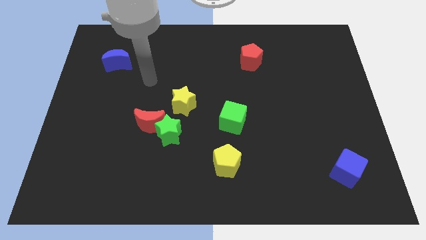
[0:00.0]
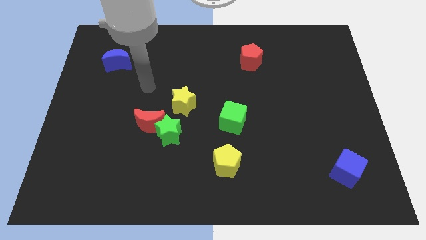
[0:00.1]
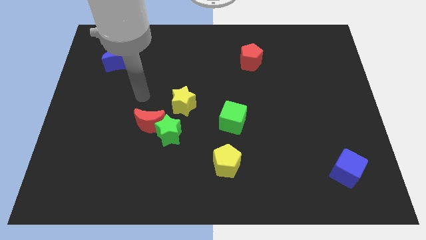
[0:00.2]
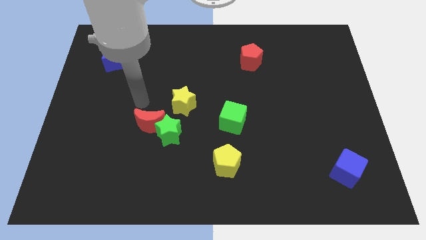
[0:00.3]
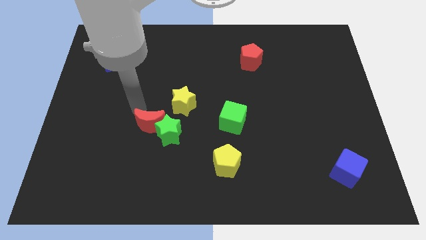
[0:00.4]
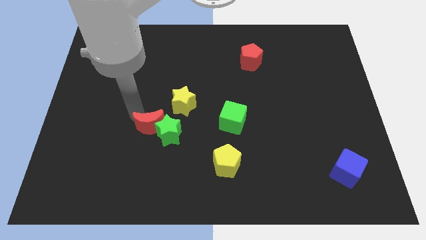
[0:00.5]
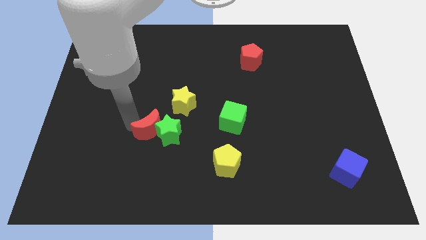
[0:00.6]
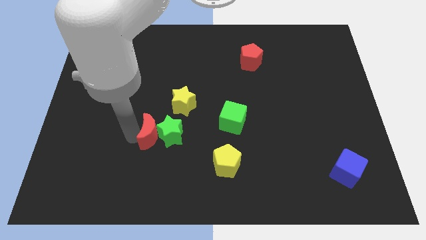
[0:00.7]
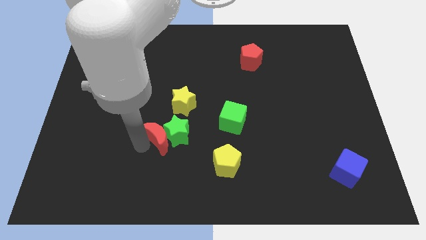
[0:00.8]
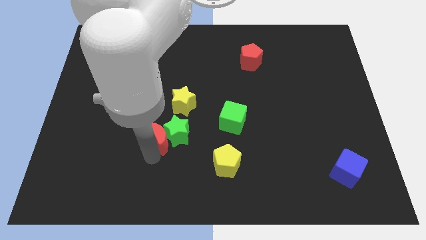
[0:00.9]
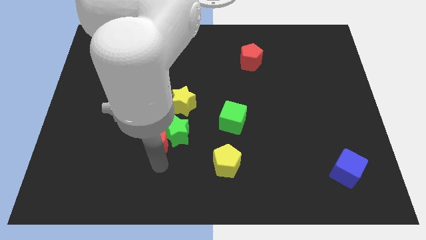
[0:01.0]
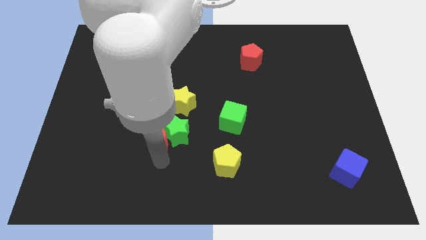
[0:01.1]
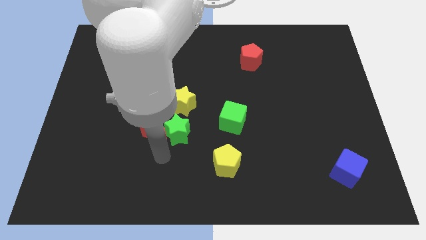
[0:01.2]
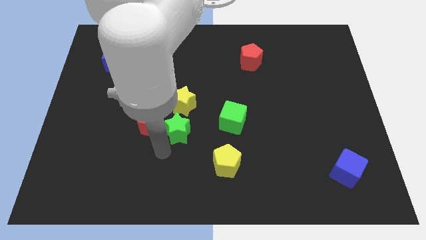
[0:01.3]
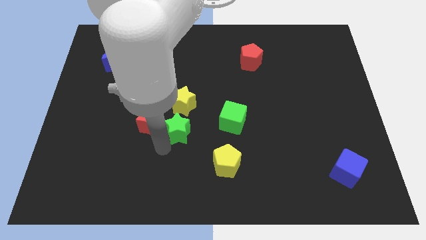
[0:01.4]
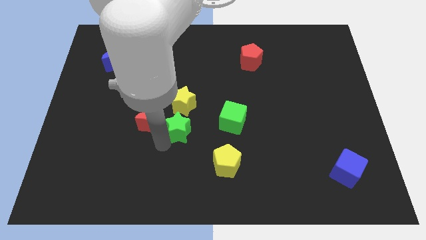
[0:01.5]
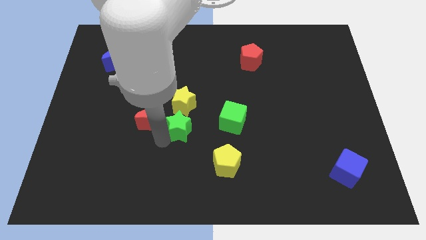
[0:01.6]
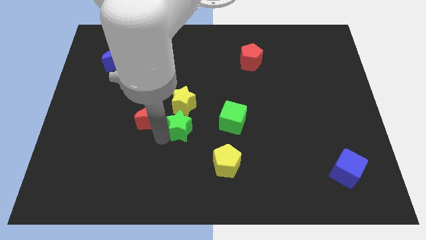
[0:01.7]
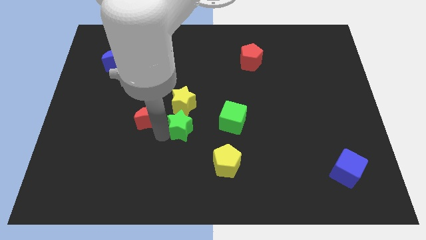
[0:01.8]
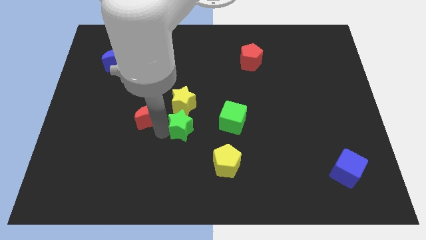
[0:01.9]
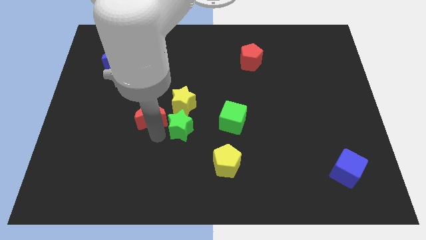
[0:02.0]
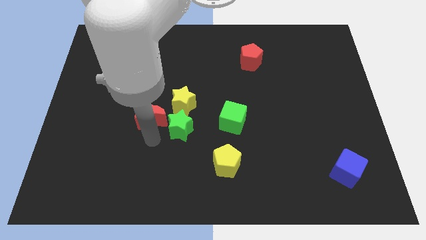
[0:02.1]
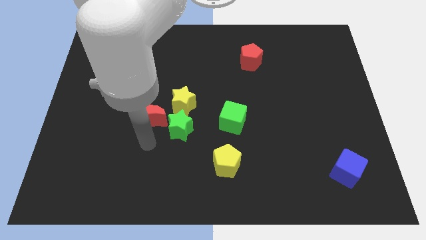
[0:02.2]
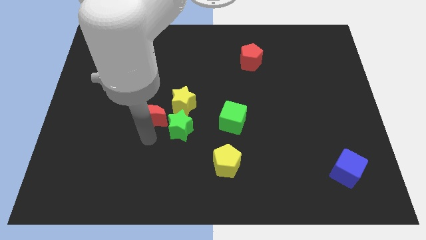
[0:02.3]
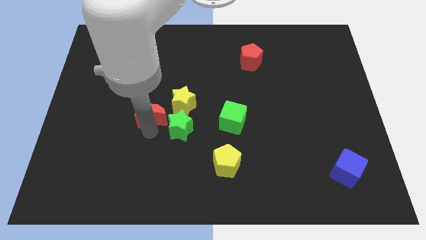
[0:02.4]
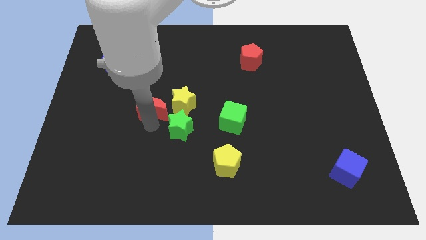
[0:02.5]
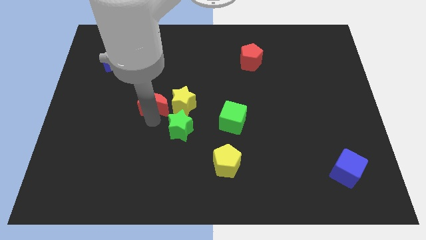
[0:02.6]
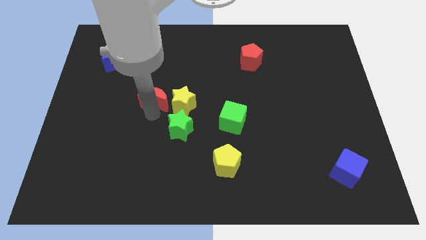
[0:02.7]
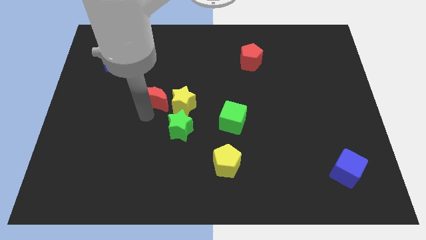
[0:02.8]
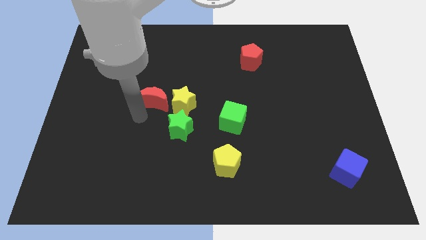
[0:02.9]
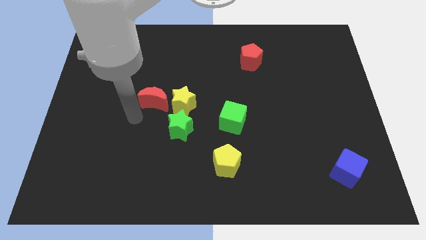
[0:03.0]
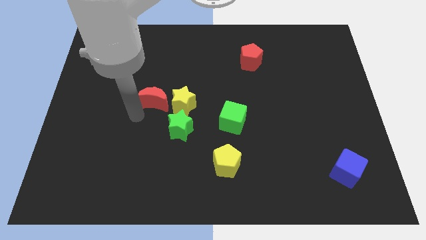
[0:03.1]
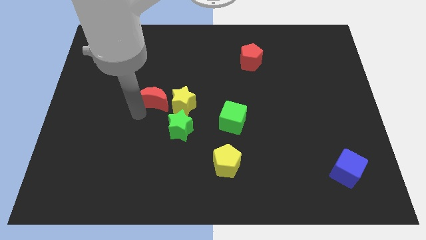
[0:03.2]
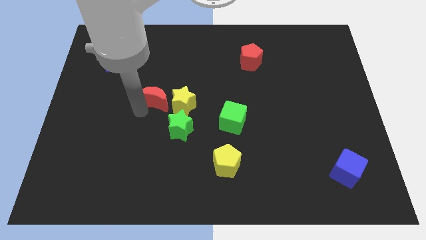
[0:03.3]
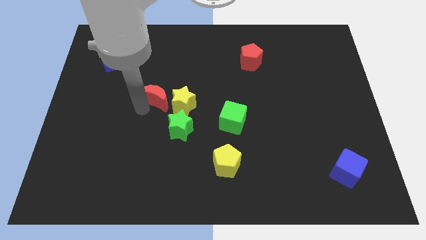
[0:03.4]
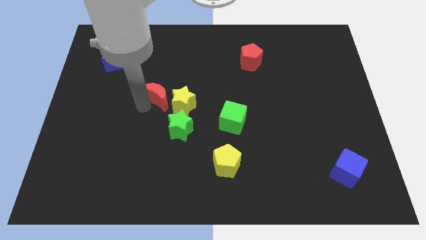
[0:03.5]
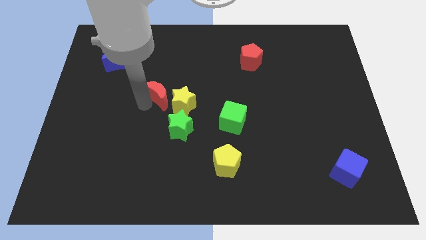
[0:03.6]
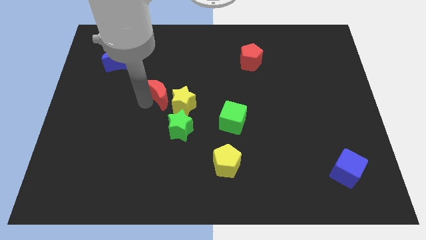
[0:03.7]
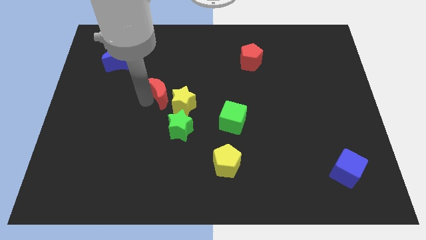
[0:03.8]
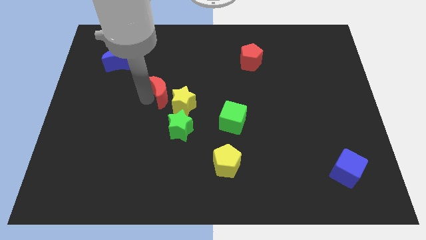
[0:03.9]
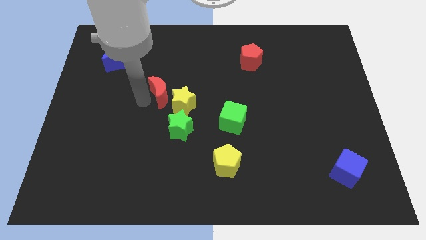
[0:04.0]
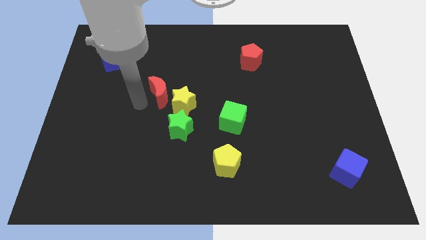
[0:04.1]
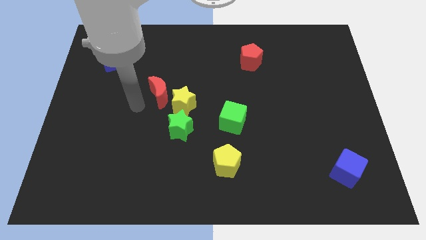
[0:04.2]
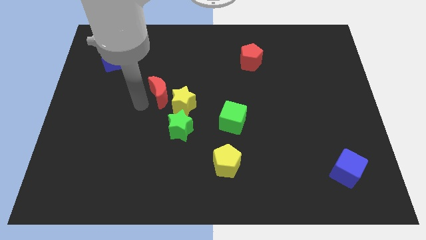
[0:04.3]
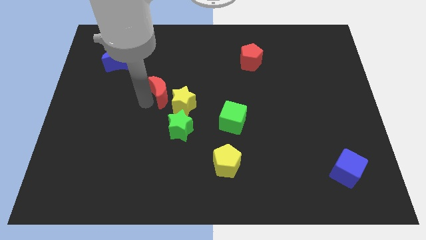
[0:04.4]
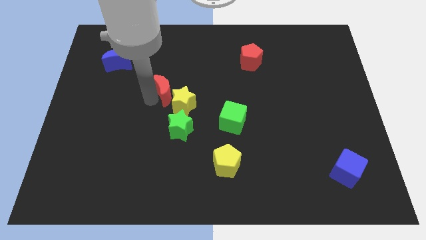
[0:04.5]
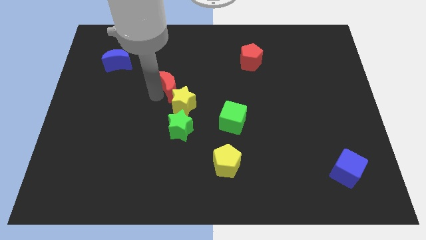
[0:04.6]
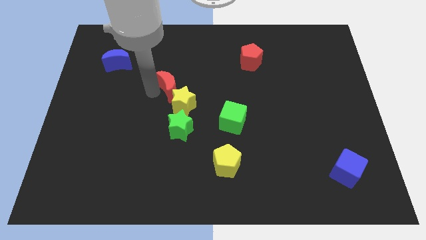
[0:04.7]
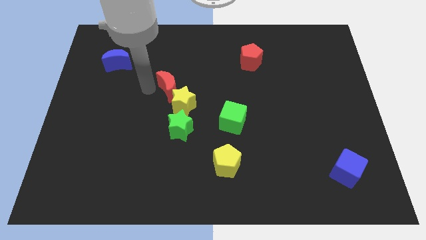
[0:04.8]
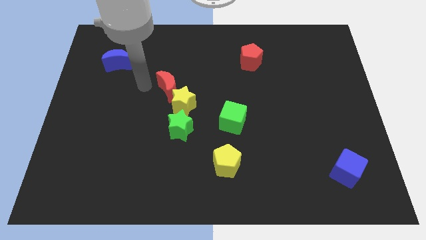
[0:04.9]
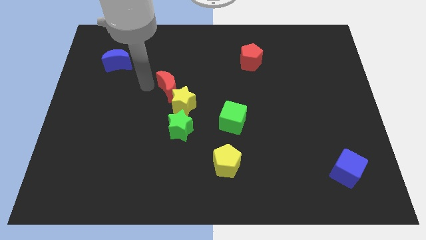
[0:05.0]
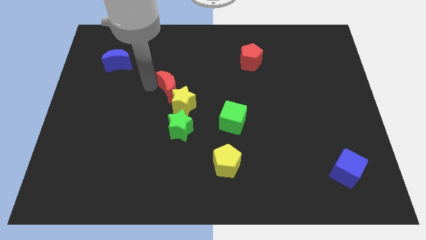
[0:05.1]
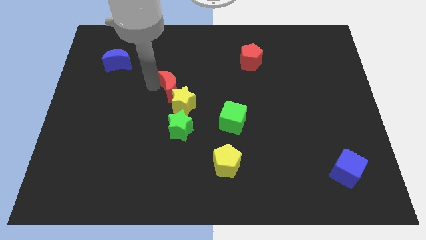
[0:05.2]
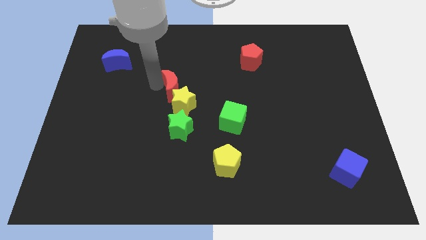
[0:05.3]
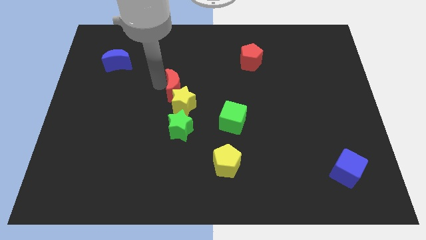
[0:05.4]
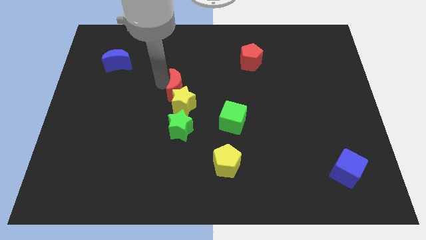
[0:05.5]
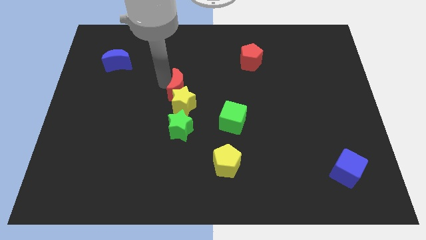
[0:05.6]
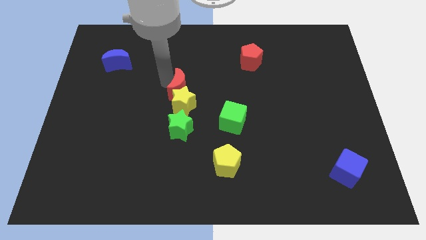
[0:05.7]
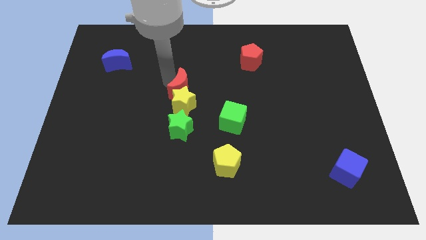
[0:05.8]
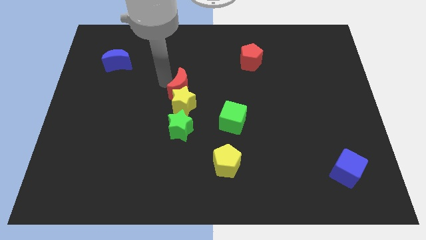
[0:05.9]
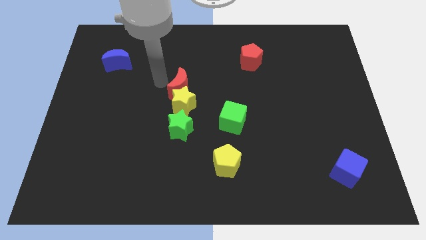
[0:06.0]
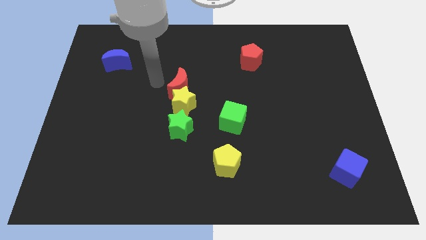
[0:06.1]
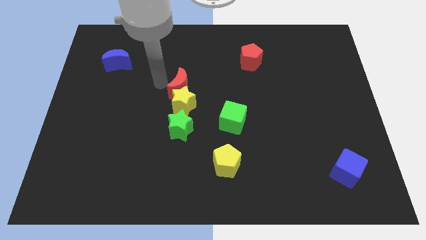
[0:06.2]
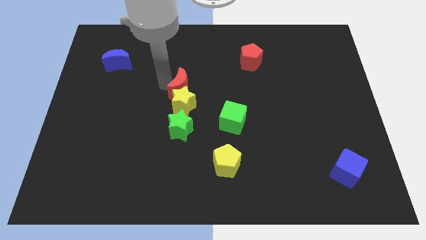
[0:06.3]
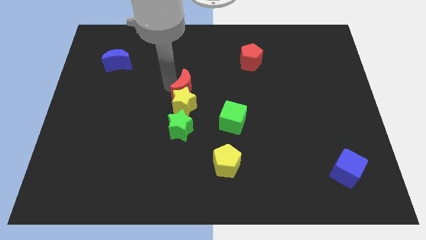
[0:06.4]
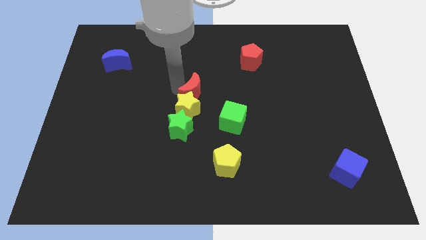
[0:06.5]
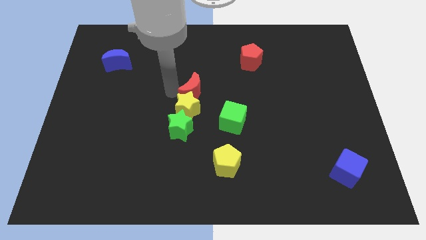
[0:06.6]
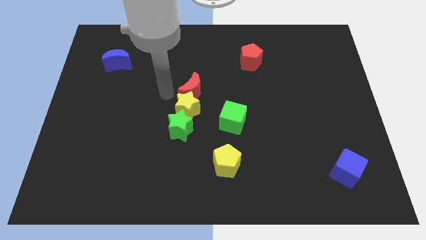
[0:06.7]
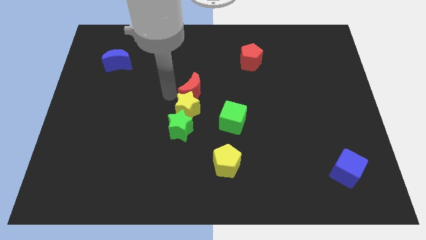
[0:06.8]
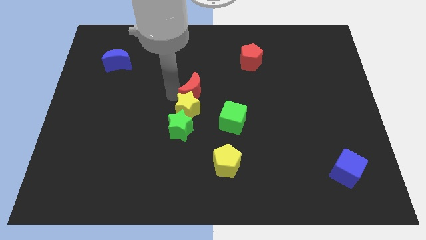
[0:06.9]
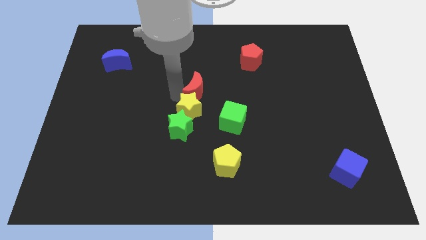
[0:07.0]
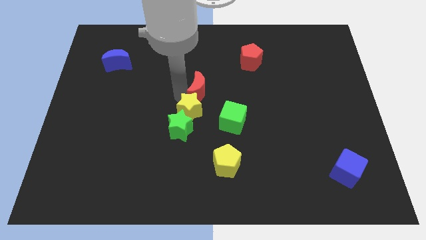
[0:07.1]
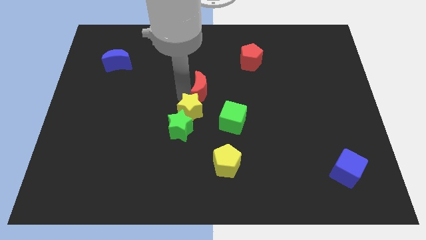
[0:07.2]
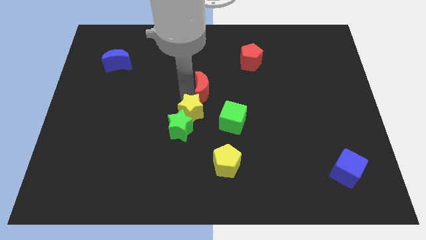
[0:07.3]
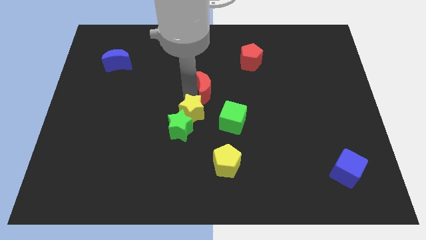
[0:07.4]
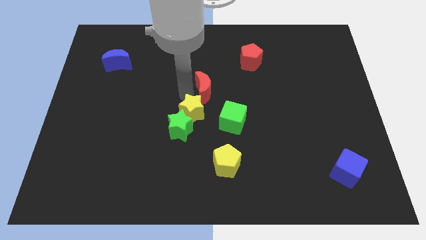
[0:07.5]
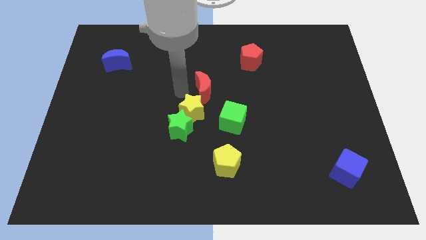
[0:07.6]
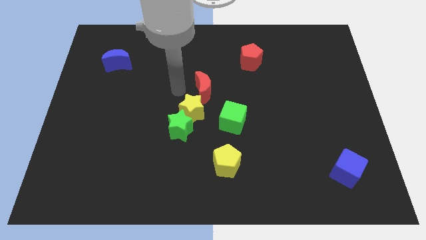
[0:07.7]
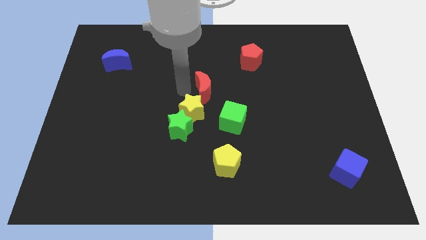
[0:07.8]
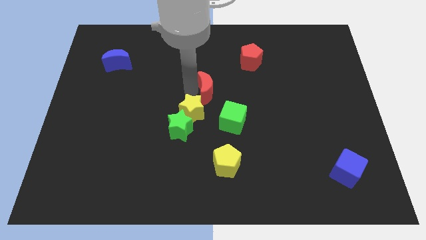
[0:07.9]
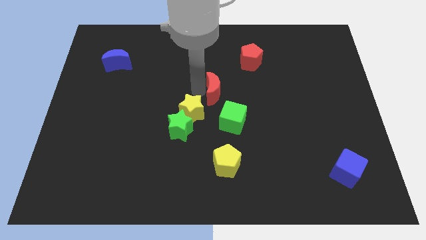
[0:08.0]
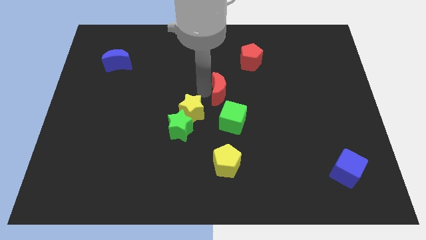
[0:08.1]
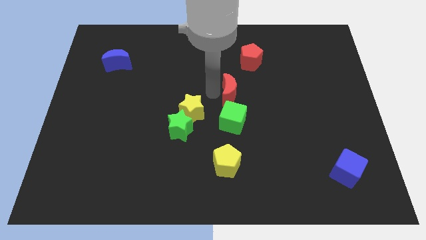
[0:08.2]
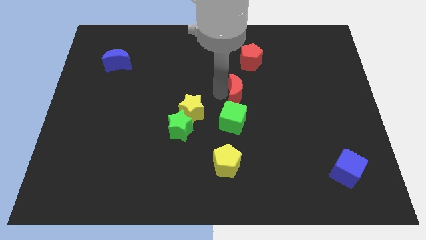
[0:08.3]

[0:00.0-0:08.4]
slide the red moon to the bottom side of the red pentagon
